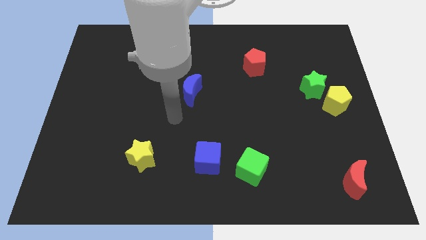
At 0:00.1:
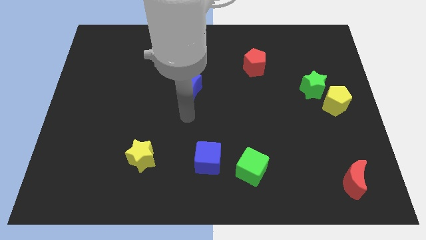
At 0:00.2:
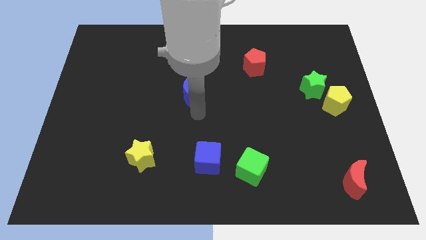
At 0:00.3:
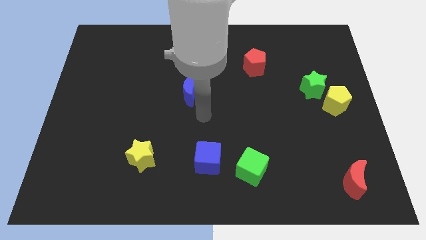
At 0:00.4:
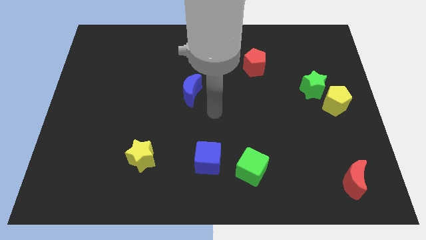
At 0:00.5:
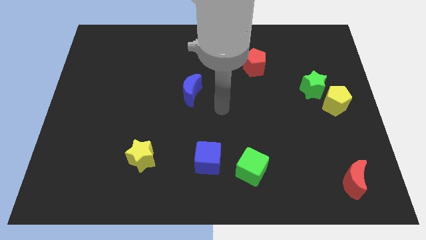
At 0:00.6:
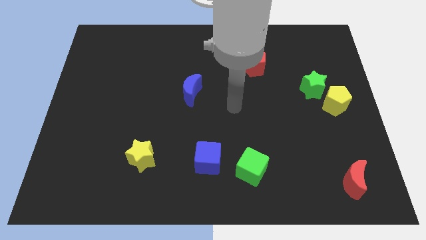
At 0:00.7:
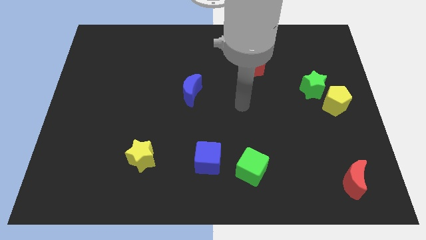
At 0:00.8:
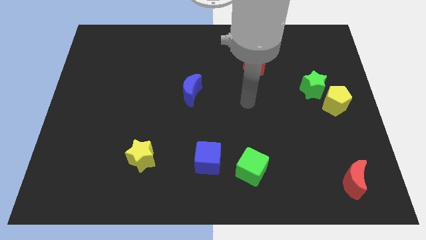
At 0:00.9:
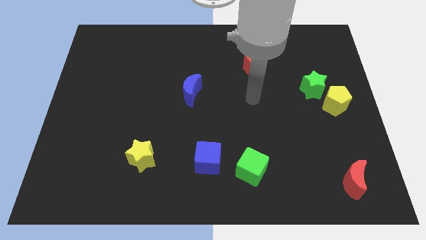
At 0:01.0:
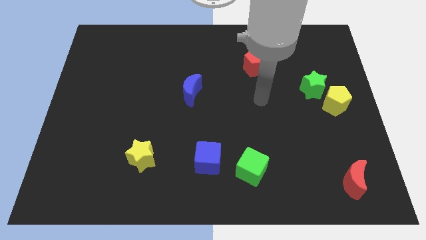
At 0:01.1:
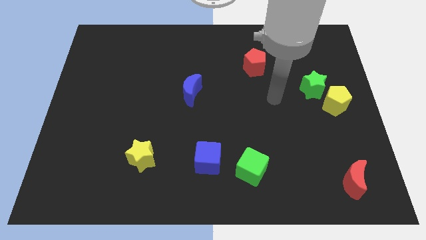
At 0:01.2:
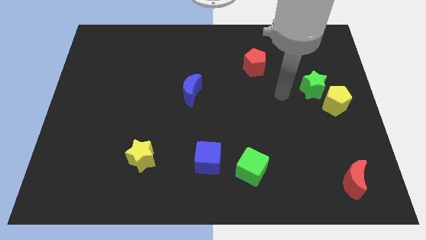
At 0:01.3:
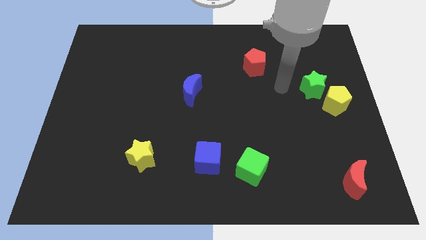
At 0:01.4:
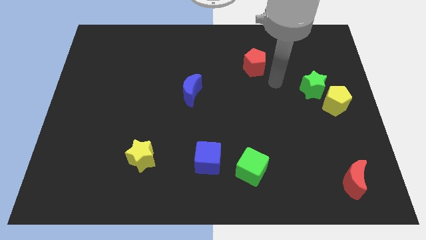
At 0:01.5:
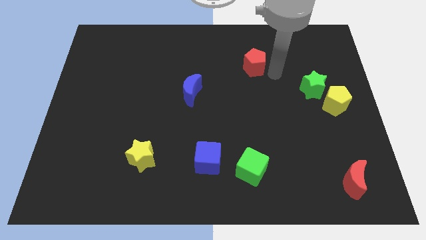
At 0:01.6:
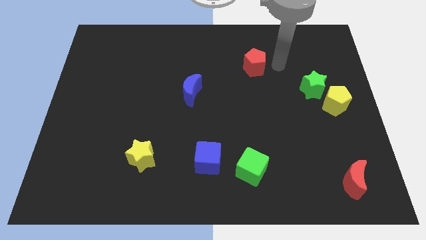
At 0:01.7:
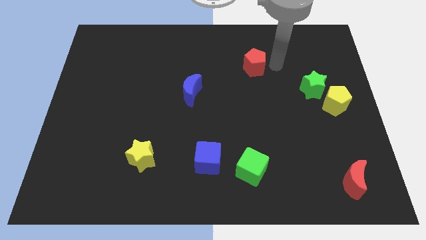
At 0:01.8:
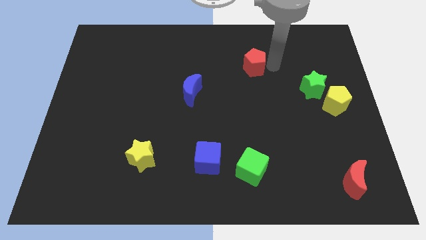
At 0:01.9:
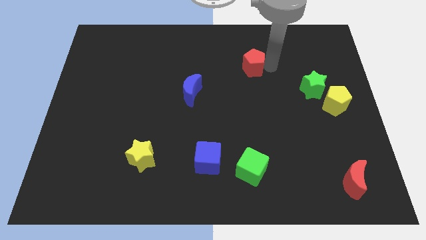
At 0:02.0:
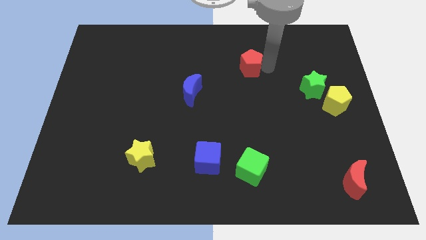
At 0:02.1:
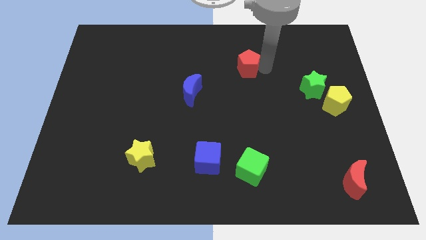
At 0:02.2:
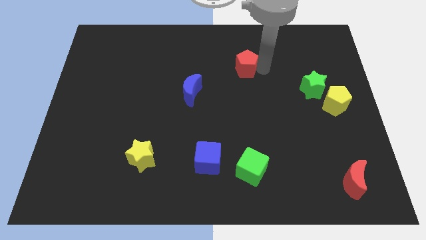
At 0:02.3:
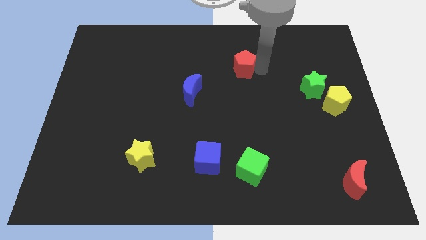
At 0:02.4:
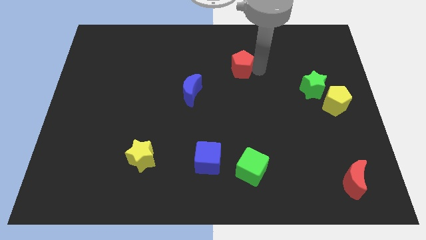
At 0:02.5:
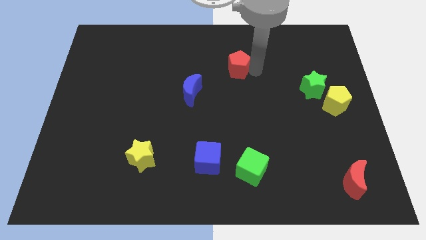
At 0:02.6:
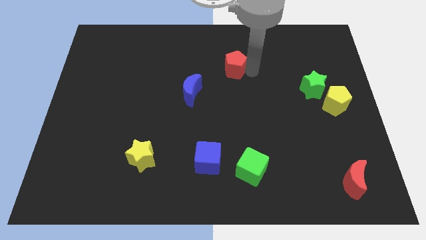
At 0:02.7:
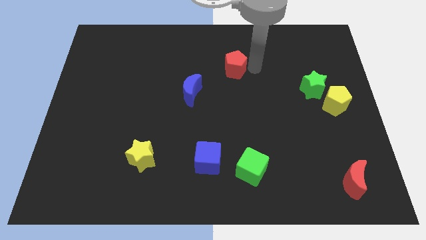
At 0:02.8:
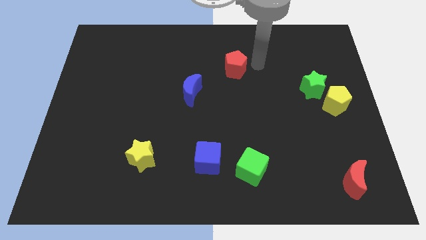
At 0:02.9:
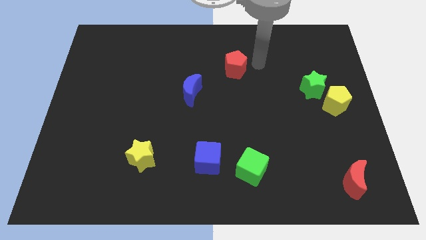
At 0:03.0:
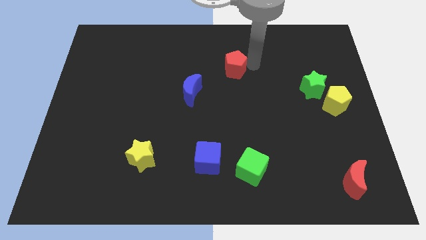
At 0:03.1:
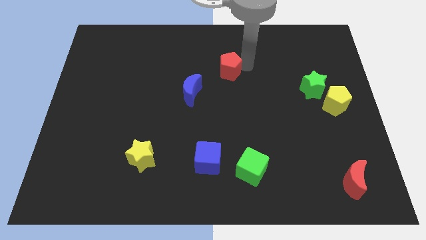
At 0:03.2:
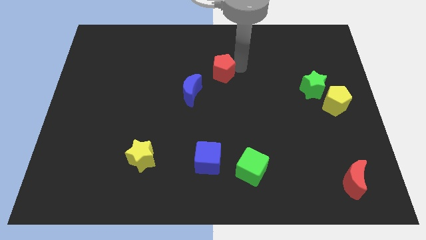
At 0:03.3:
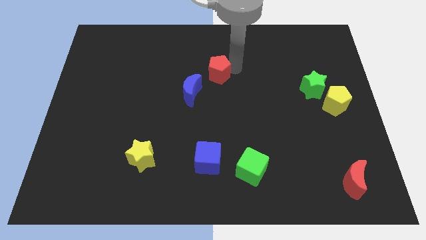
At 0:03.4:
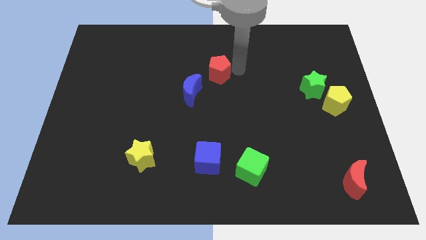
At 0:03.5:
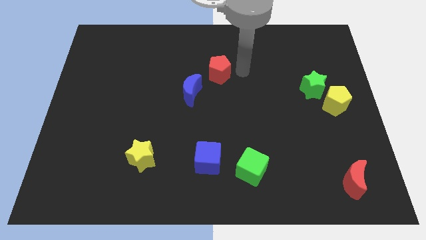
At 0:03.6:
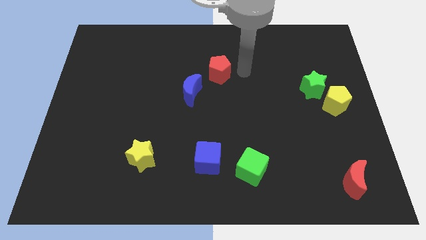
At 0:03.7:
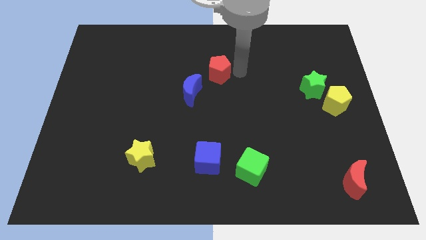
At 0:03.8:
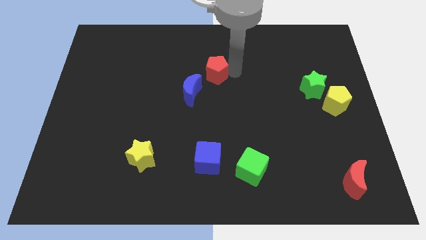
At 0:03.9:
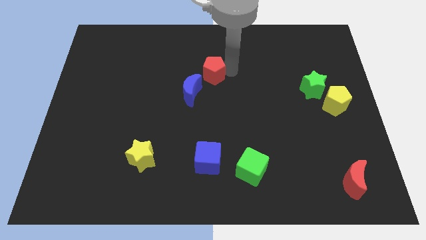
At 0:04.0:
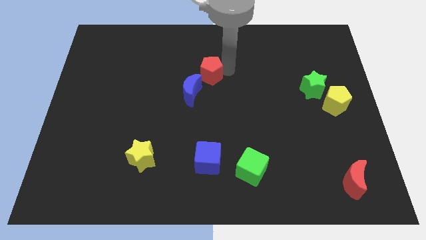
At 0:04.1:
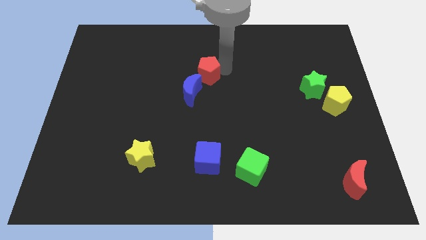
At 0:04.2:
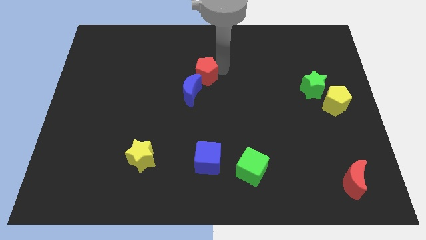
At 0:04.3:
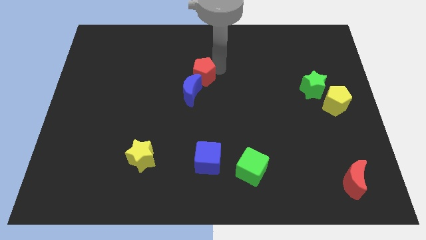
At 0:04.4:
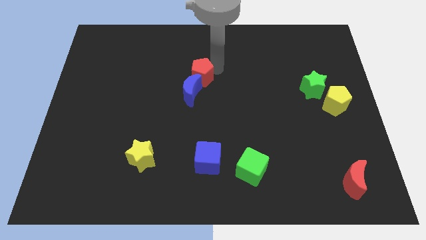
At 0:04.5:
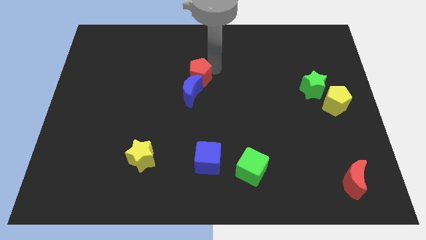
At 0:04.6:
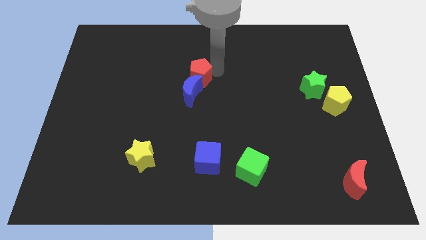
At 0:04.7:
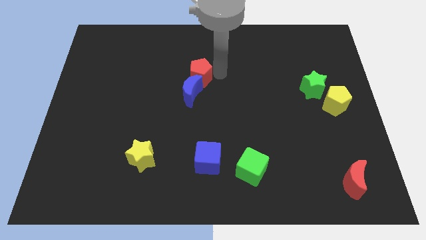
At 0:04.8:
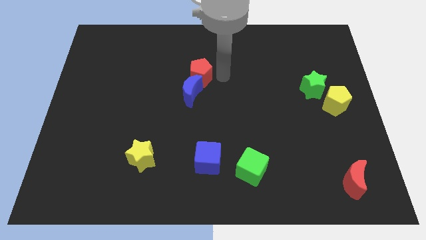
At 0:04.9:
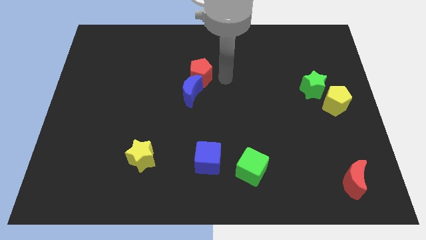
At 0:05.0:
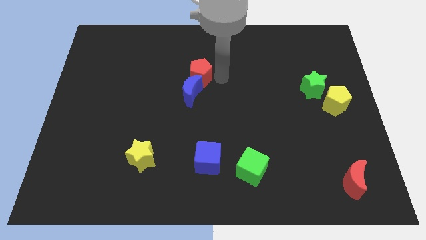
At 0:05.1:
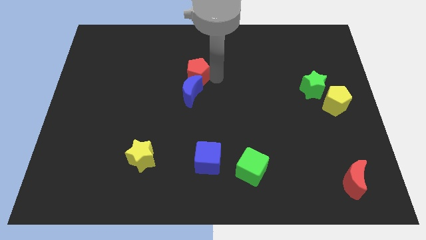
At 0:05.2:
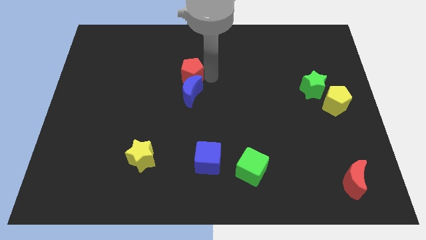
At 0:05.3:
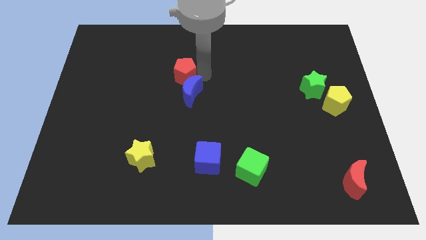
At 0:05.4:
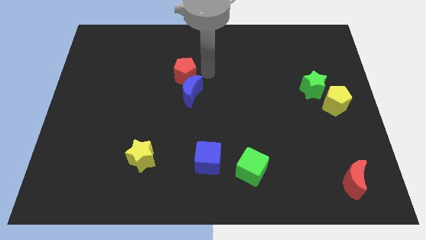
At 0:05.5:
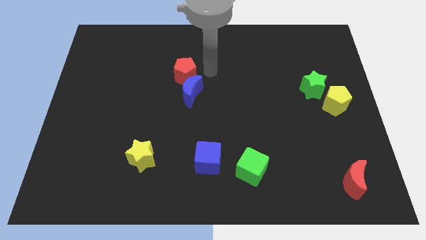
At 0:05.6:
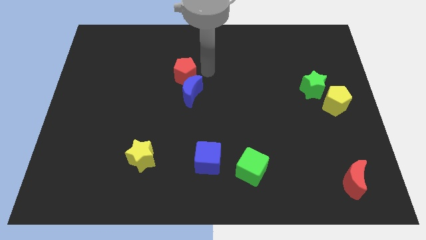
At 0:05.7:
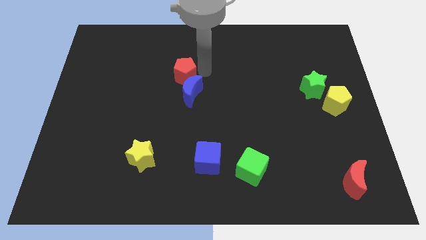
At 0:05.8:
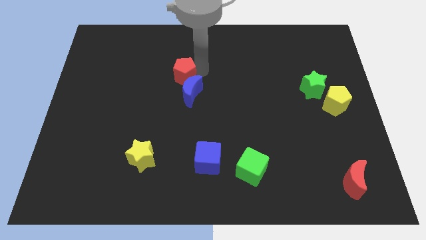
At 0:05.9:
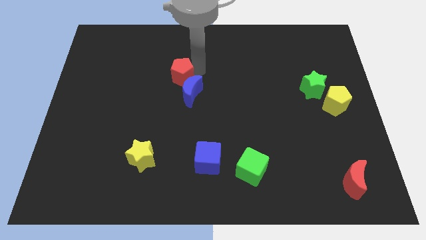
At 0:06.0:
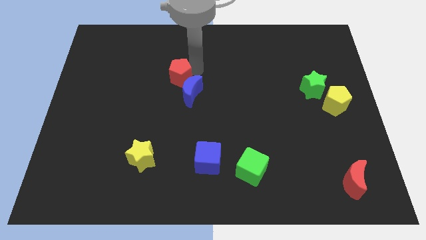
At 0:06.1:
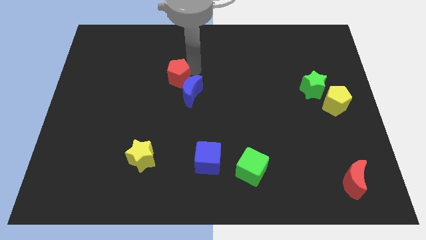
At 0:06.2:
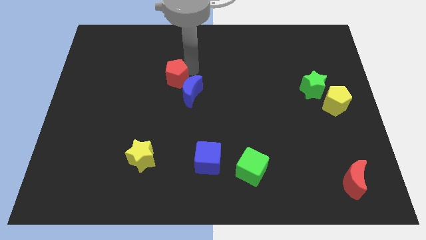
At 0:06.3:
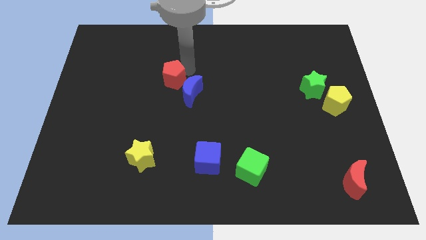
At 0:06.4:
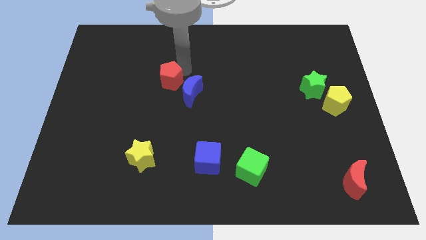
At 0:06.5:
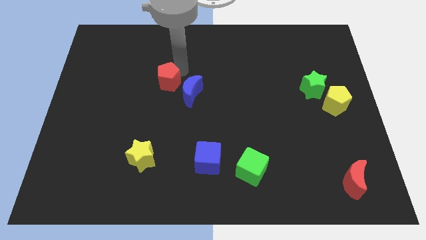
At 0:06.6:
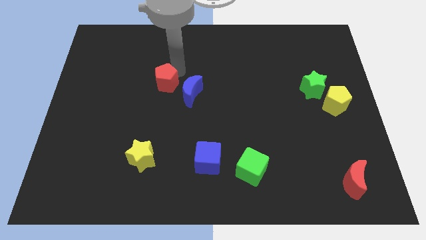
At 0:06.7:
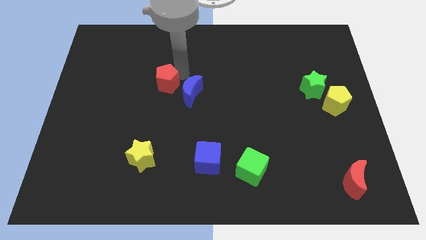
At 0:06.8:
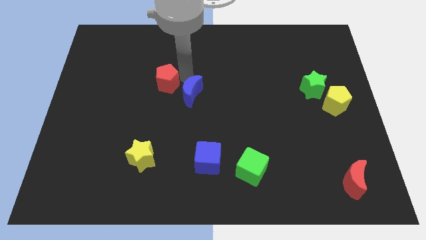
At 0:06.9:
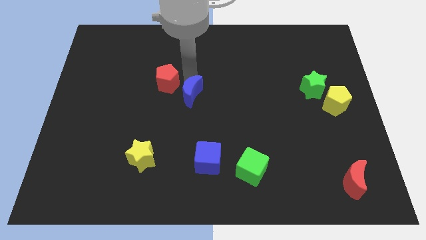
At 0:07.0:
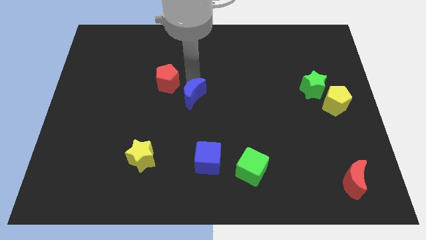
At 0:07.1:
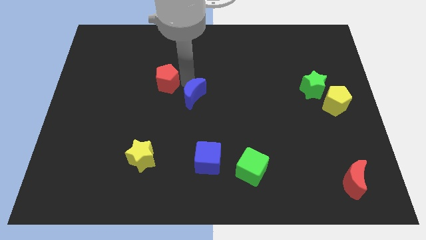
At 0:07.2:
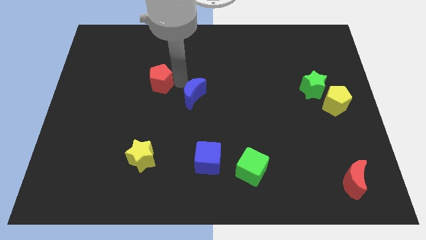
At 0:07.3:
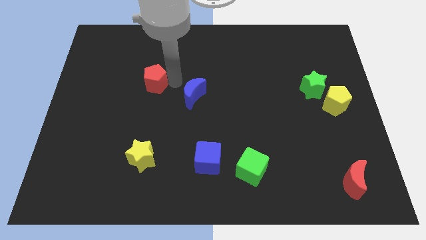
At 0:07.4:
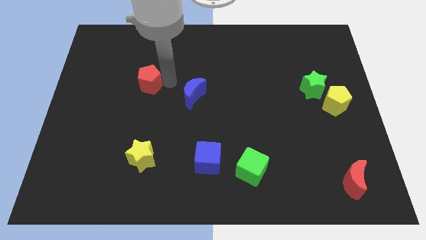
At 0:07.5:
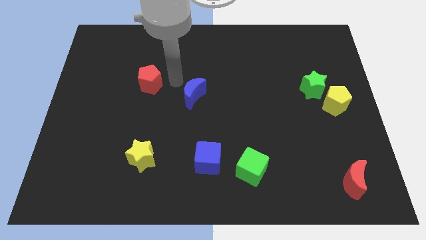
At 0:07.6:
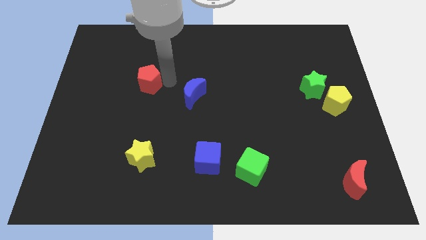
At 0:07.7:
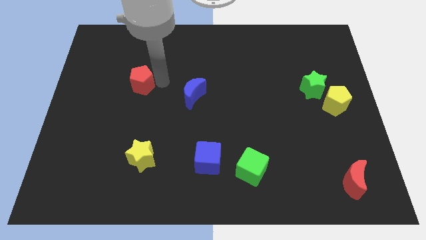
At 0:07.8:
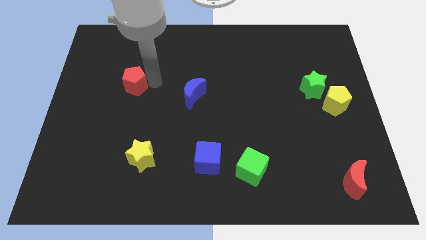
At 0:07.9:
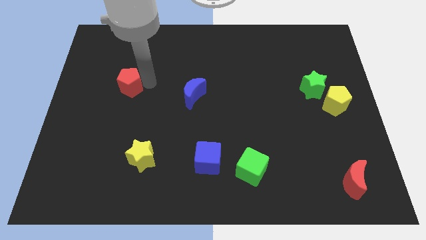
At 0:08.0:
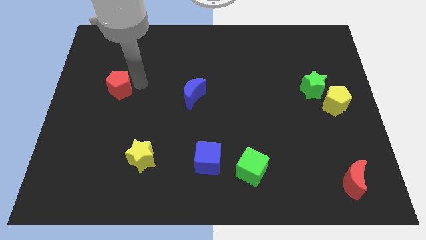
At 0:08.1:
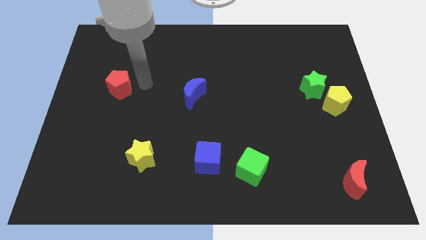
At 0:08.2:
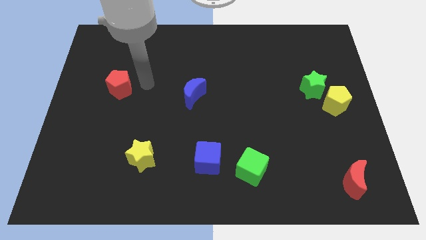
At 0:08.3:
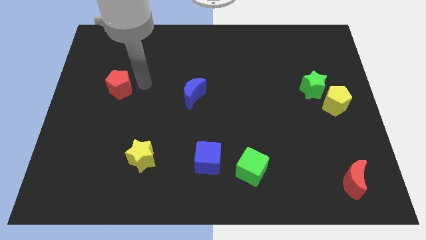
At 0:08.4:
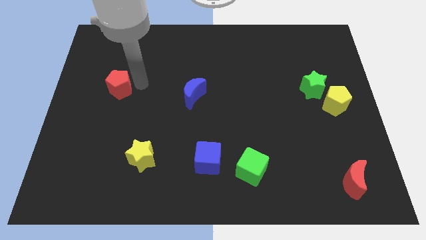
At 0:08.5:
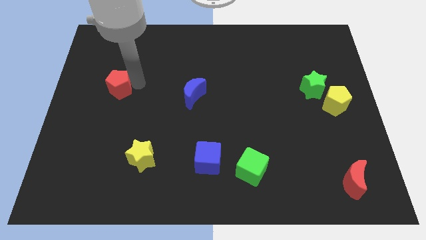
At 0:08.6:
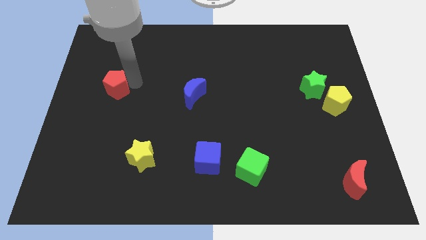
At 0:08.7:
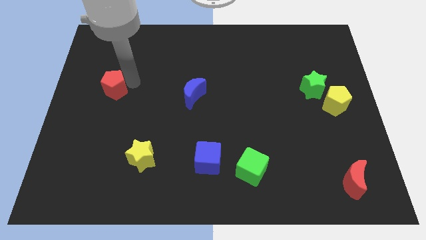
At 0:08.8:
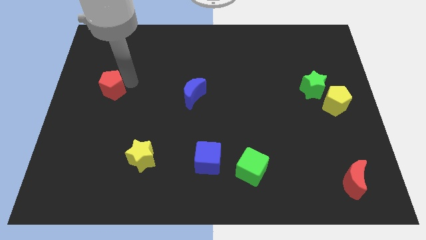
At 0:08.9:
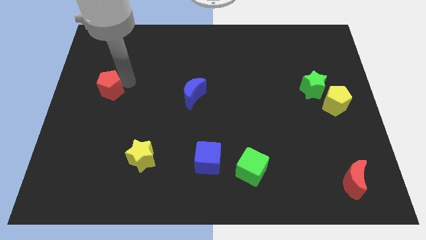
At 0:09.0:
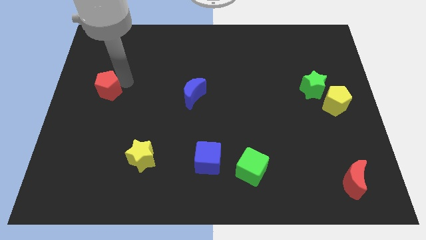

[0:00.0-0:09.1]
put the red pentagon to the left side of the board
